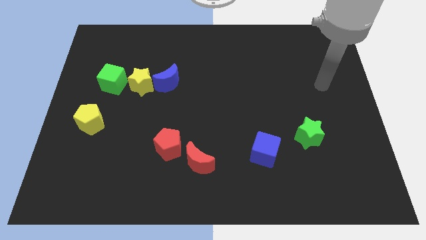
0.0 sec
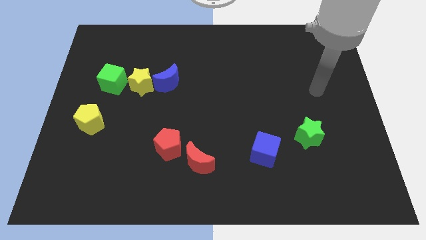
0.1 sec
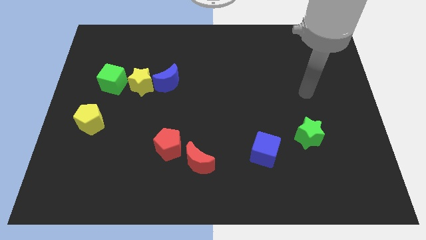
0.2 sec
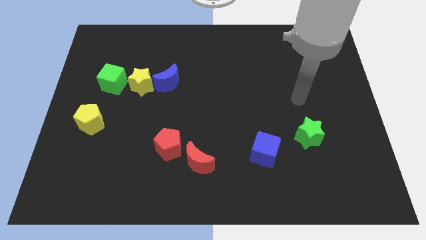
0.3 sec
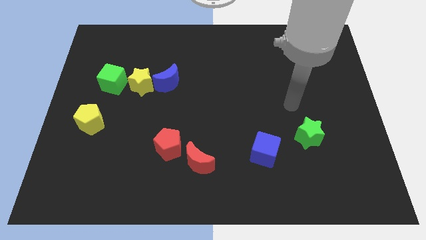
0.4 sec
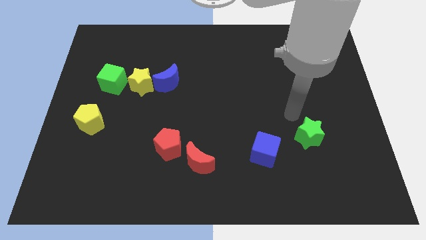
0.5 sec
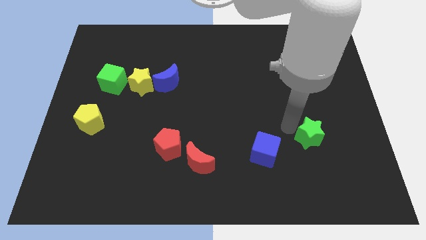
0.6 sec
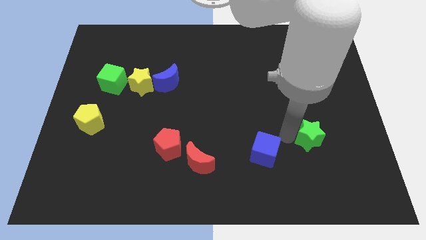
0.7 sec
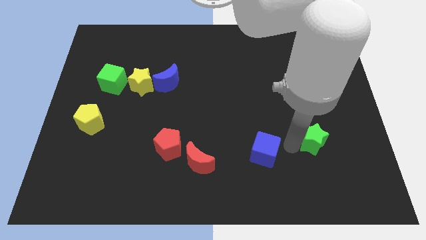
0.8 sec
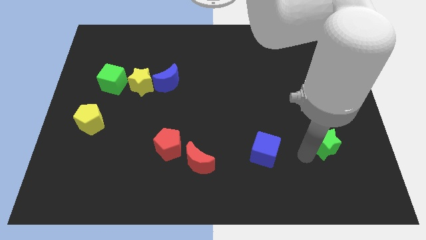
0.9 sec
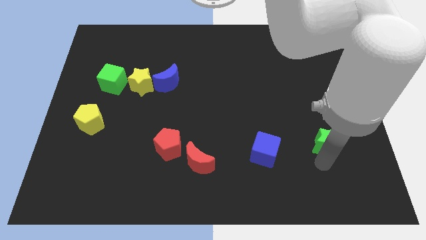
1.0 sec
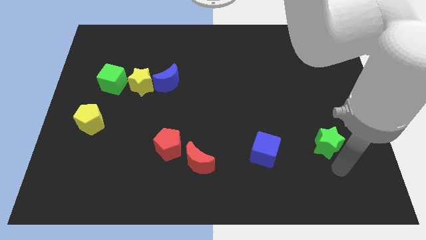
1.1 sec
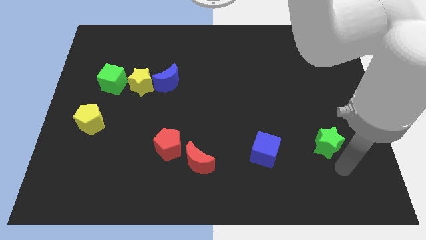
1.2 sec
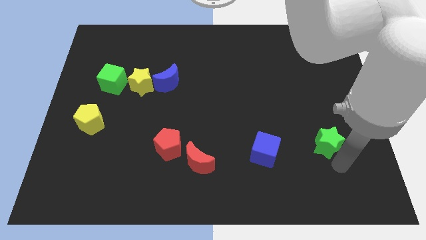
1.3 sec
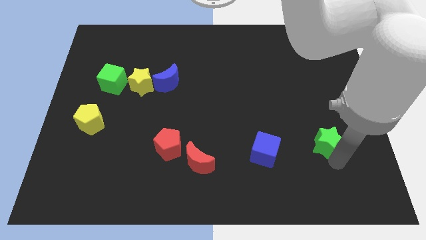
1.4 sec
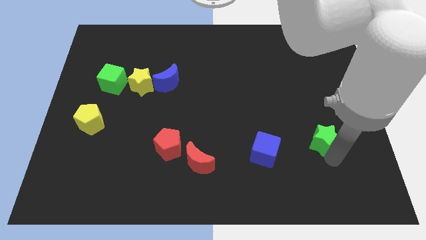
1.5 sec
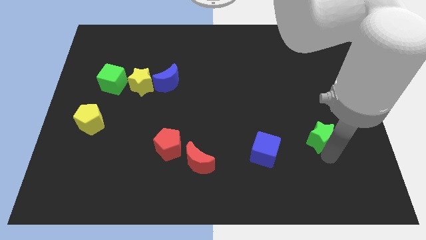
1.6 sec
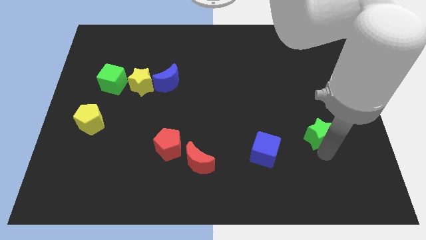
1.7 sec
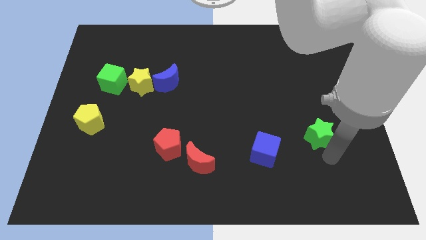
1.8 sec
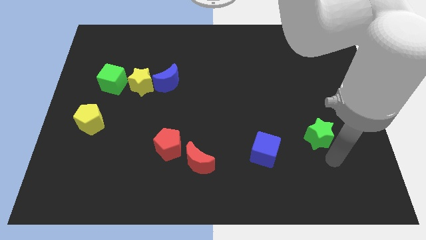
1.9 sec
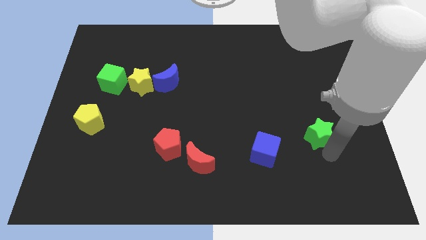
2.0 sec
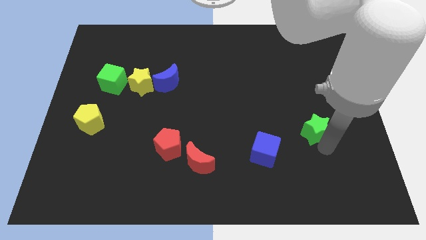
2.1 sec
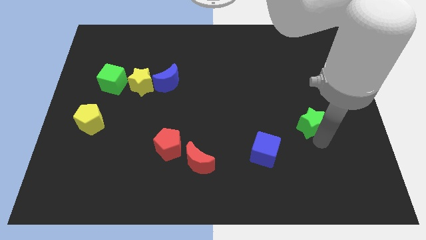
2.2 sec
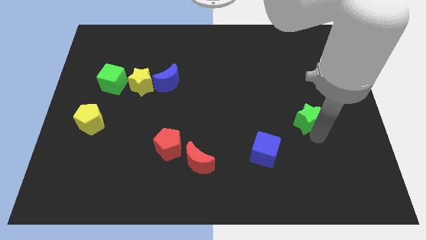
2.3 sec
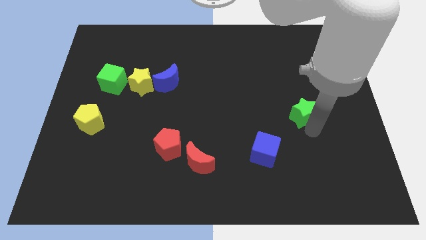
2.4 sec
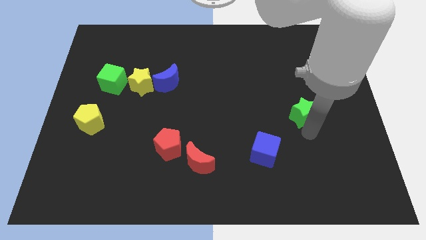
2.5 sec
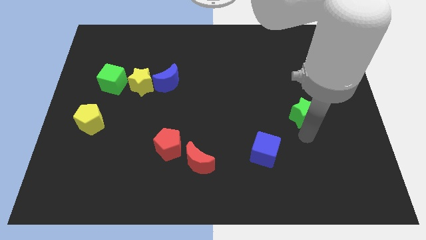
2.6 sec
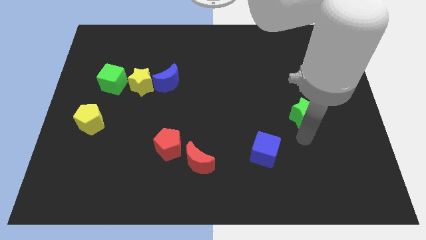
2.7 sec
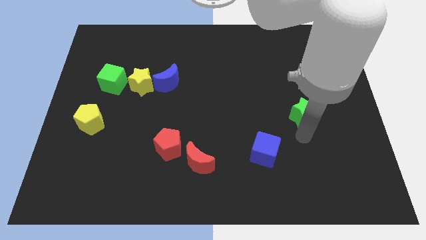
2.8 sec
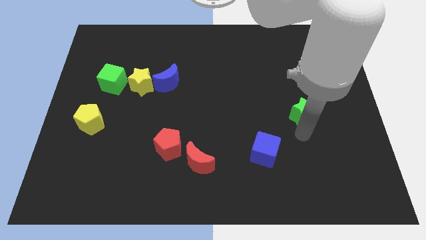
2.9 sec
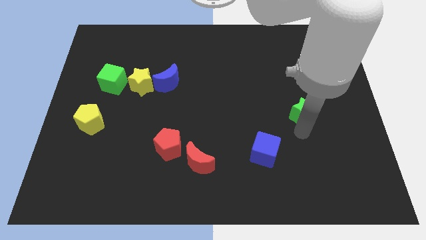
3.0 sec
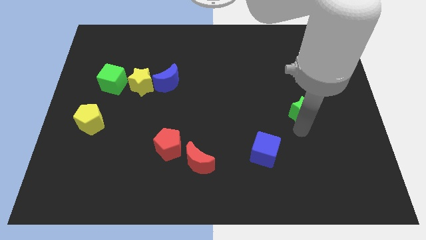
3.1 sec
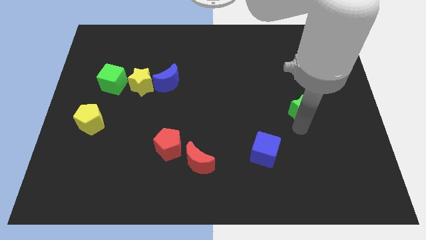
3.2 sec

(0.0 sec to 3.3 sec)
move the green star a bit upwards

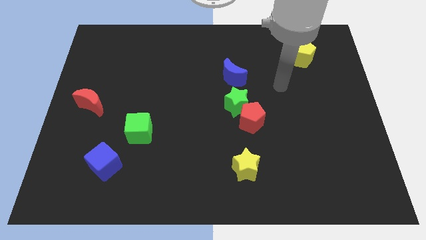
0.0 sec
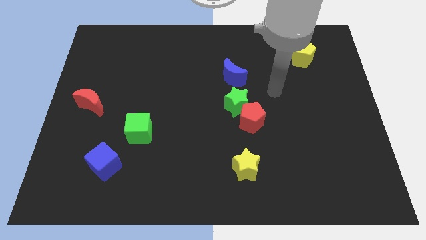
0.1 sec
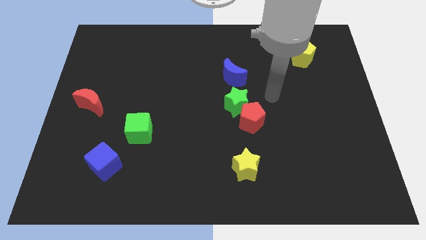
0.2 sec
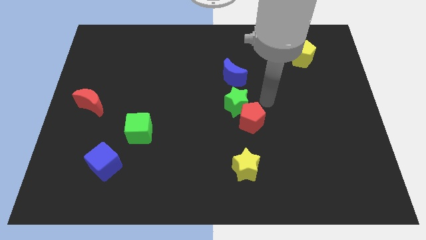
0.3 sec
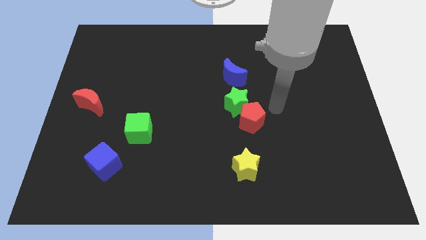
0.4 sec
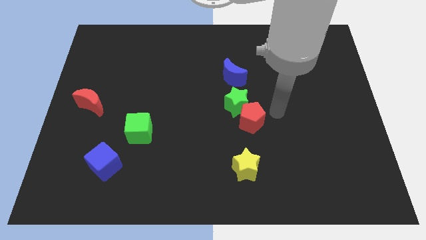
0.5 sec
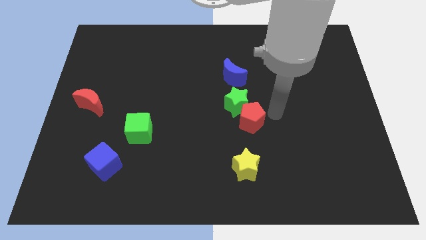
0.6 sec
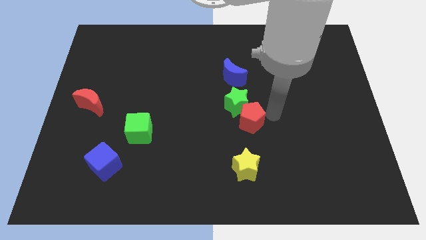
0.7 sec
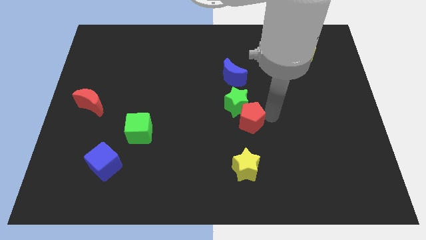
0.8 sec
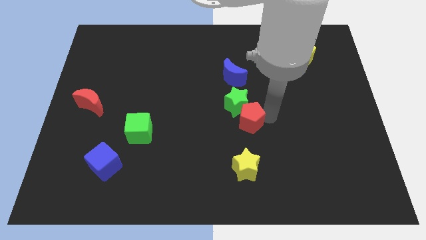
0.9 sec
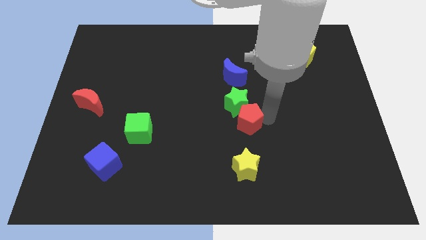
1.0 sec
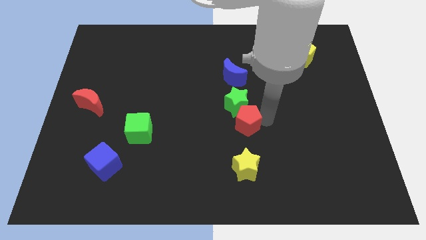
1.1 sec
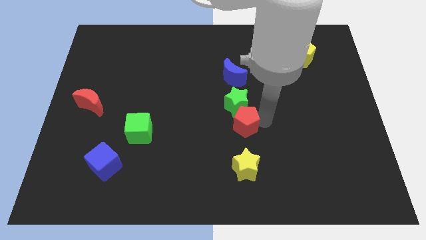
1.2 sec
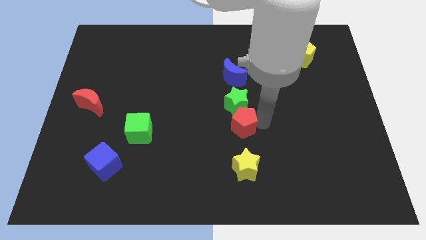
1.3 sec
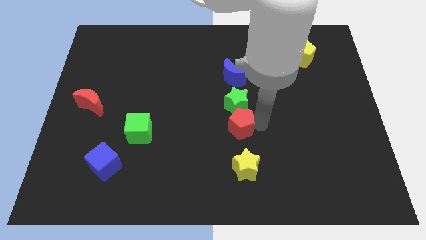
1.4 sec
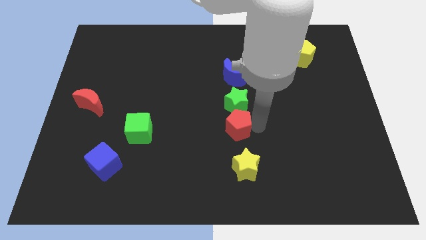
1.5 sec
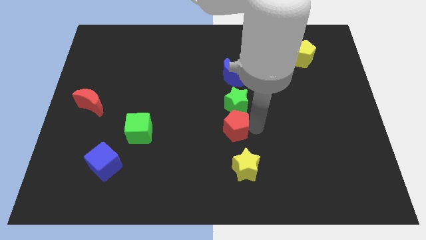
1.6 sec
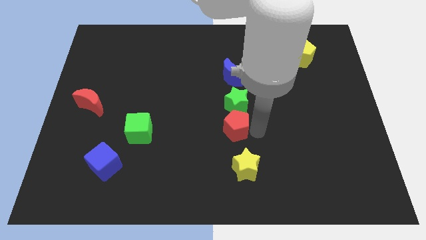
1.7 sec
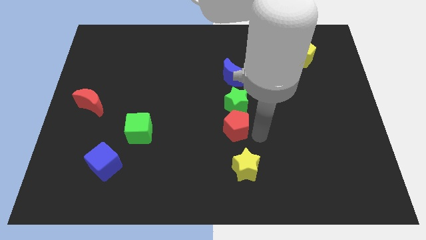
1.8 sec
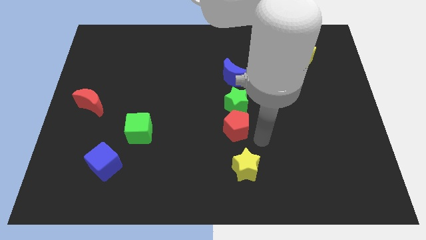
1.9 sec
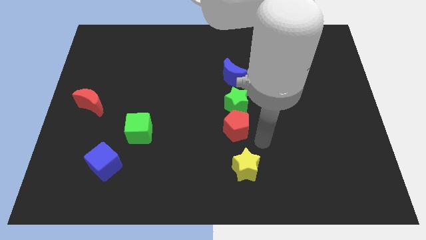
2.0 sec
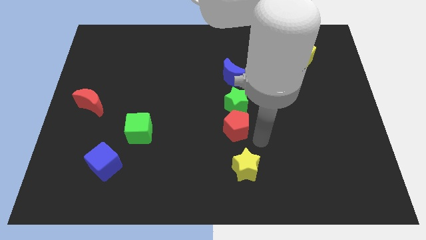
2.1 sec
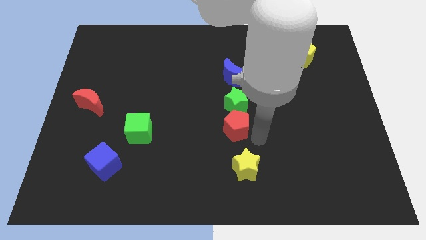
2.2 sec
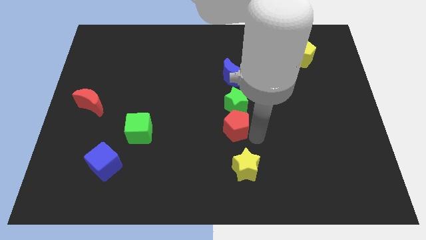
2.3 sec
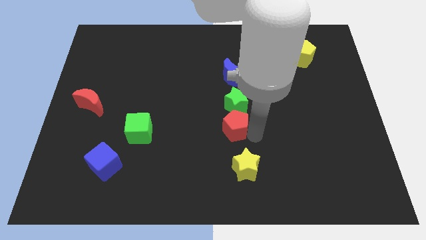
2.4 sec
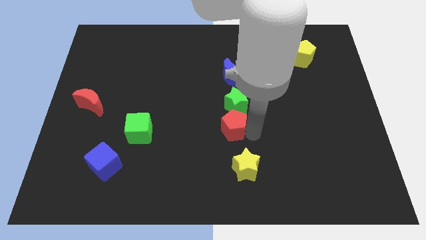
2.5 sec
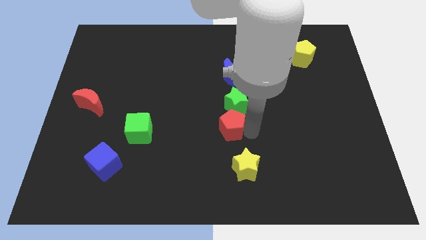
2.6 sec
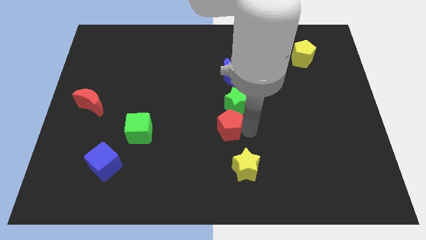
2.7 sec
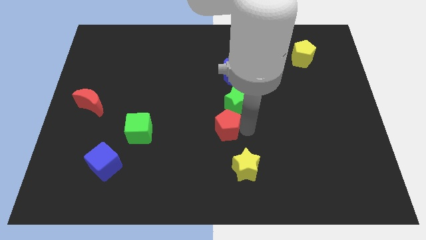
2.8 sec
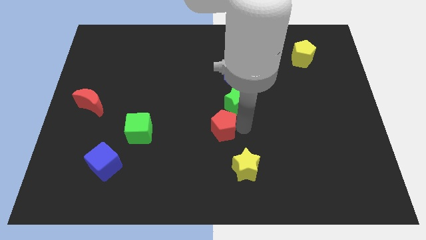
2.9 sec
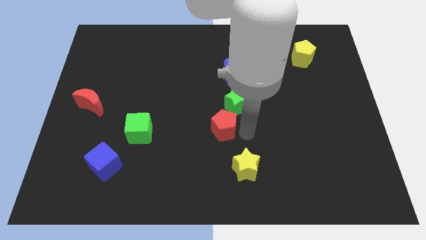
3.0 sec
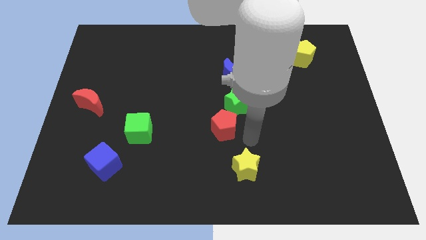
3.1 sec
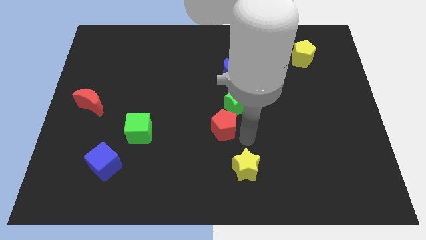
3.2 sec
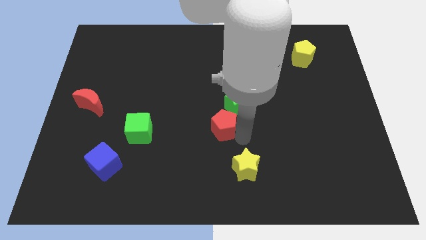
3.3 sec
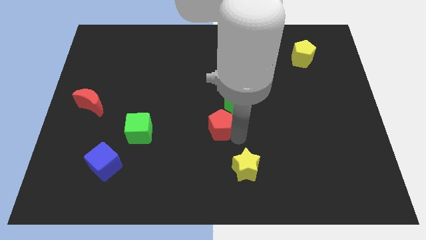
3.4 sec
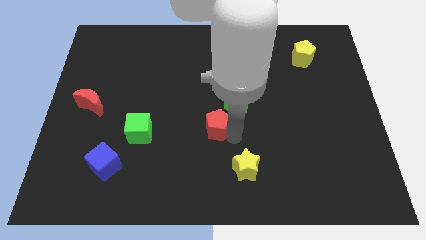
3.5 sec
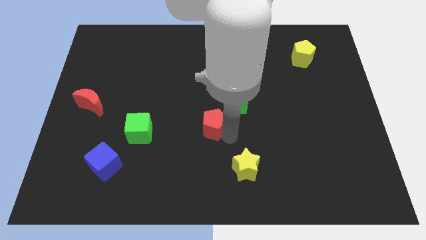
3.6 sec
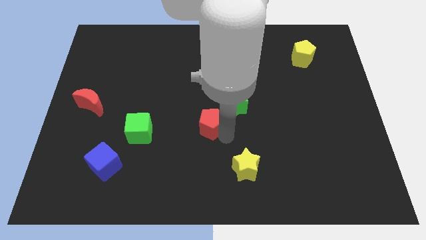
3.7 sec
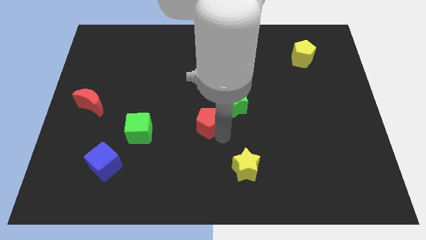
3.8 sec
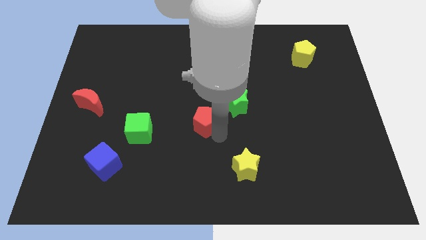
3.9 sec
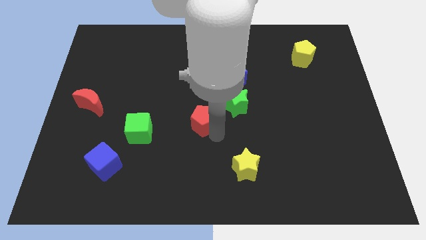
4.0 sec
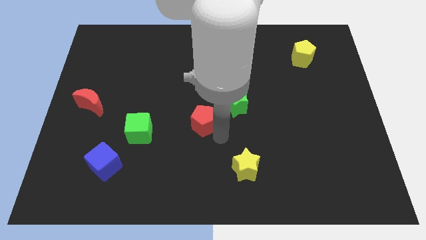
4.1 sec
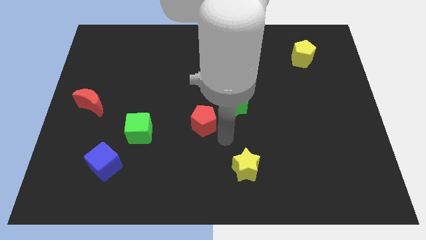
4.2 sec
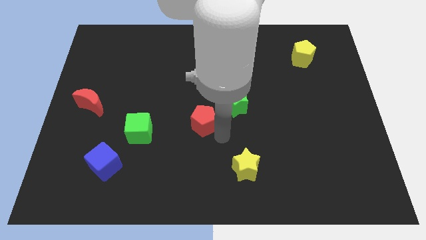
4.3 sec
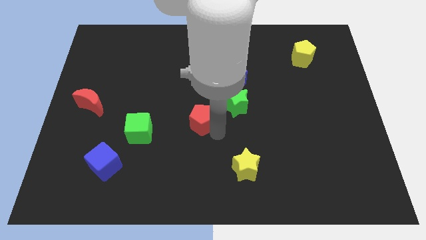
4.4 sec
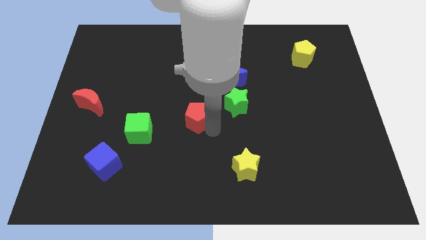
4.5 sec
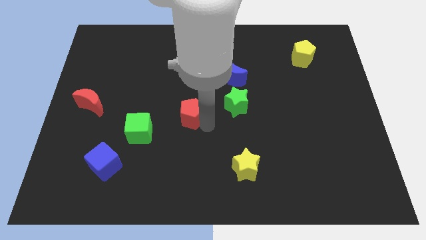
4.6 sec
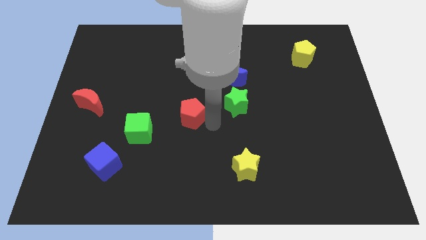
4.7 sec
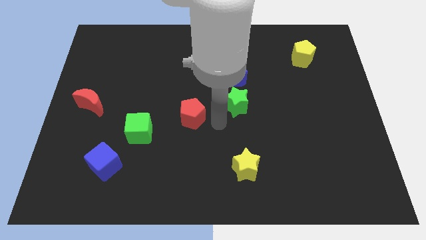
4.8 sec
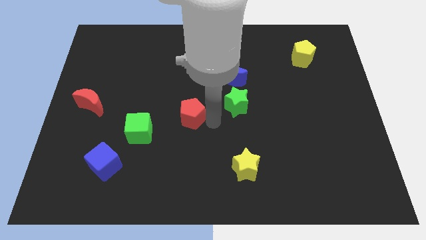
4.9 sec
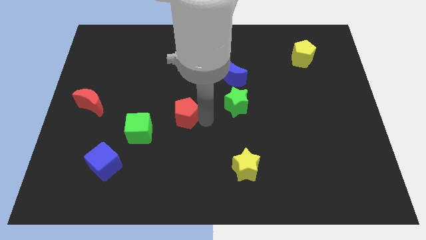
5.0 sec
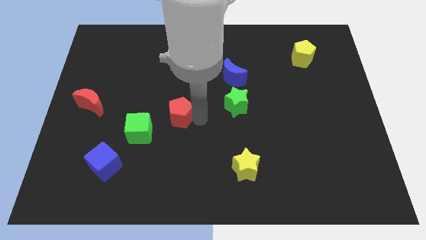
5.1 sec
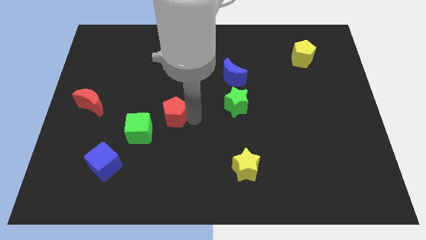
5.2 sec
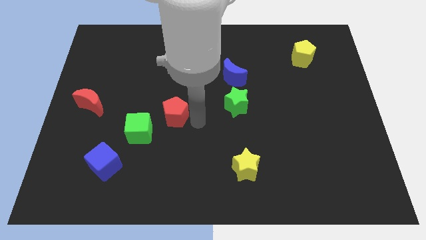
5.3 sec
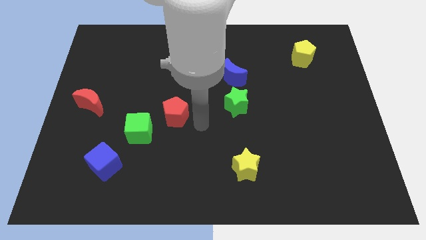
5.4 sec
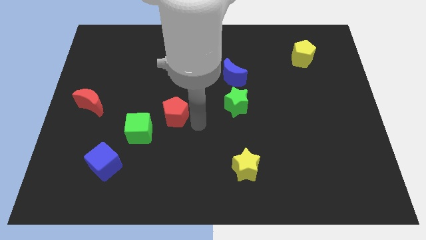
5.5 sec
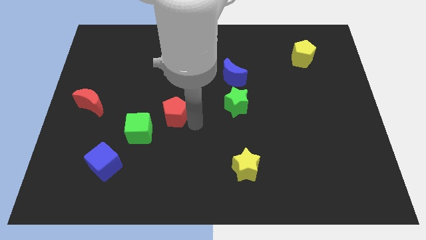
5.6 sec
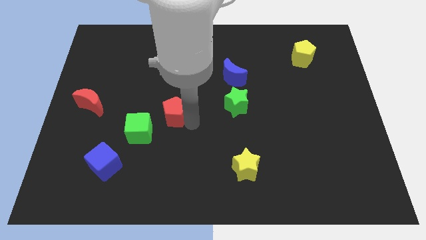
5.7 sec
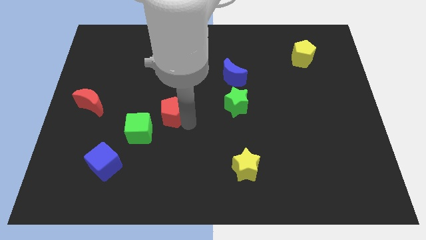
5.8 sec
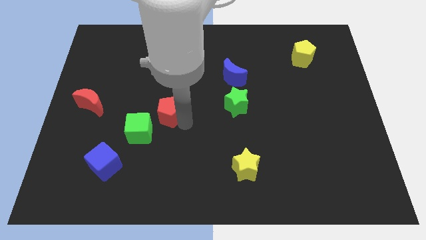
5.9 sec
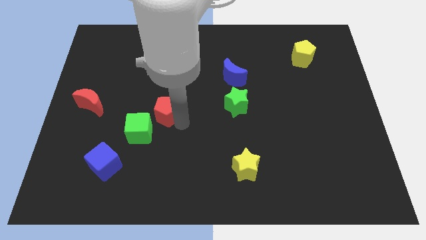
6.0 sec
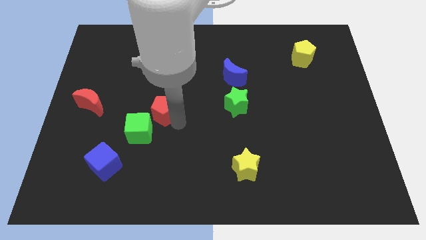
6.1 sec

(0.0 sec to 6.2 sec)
move the red pentagon left
